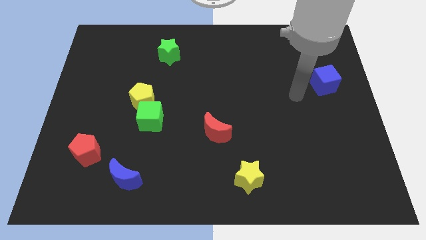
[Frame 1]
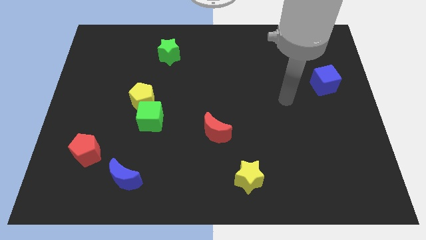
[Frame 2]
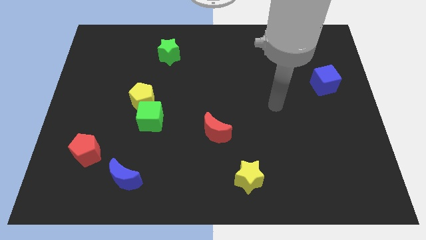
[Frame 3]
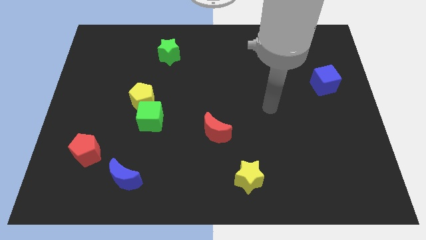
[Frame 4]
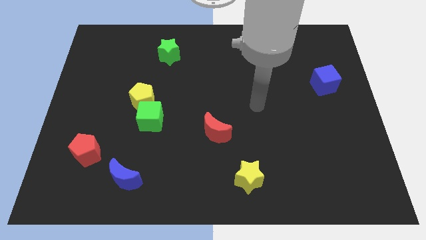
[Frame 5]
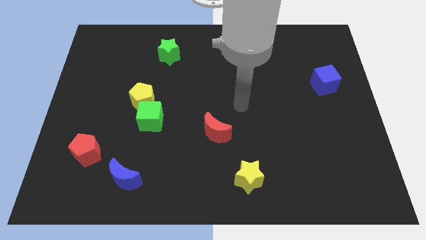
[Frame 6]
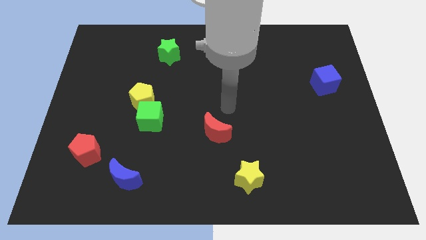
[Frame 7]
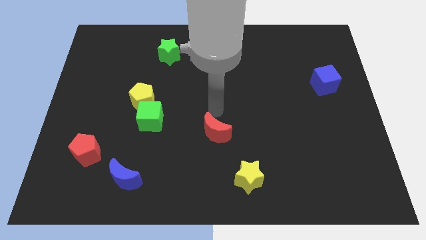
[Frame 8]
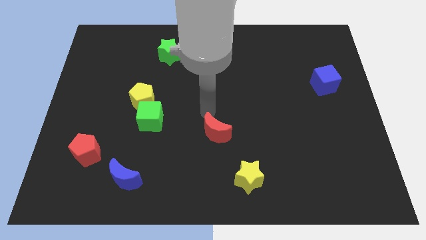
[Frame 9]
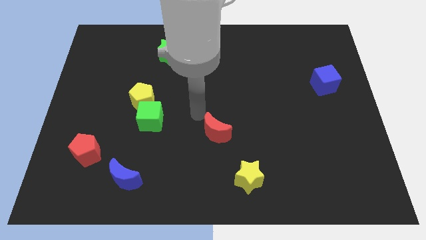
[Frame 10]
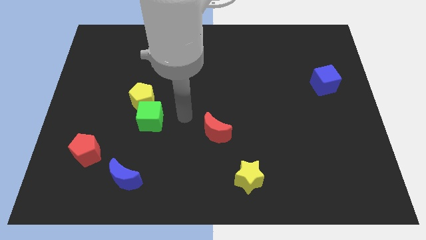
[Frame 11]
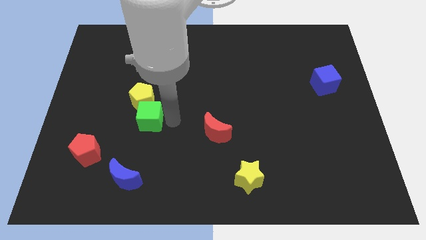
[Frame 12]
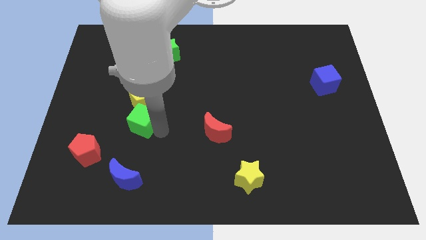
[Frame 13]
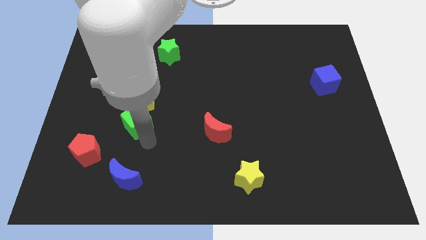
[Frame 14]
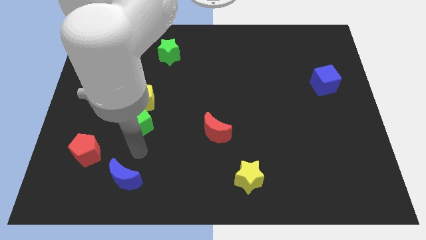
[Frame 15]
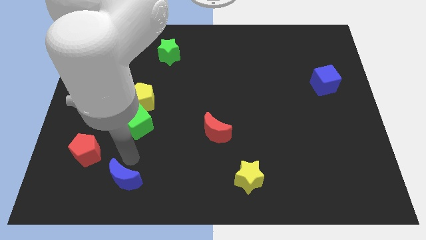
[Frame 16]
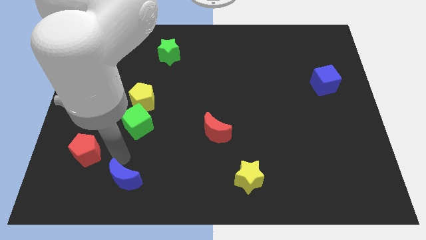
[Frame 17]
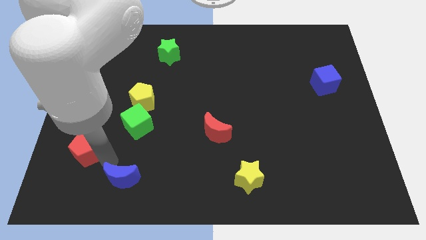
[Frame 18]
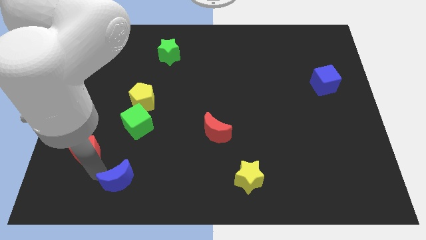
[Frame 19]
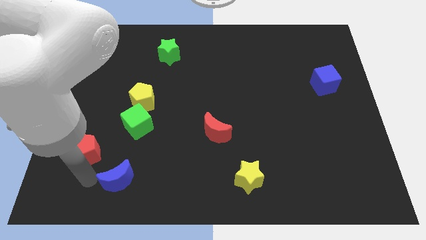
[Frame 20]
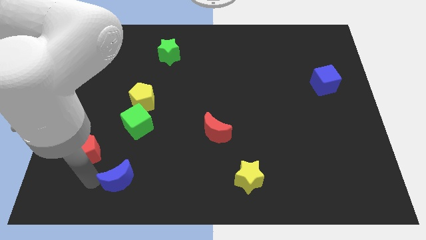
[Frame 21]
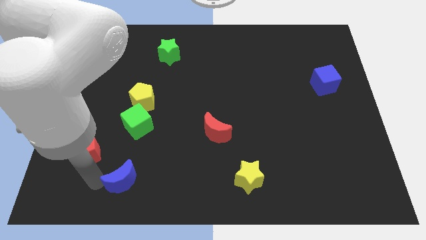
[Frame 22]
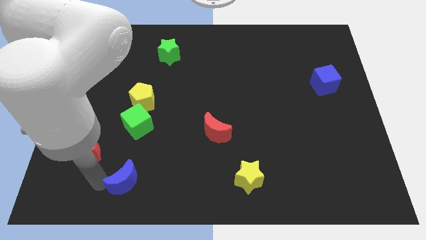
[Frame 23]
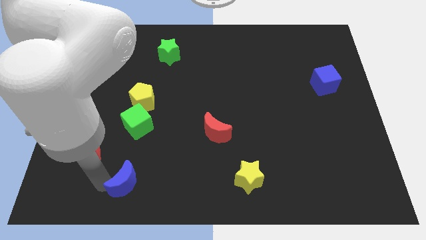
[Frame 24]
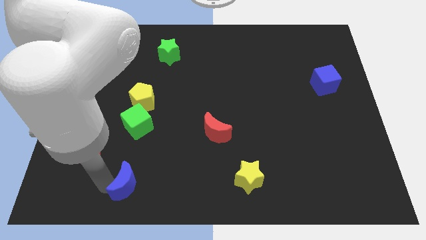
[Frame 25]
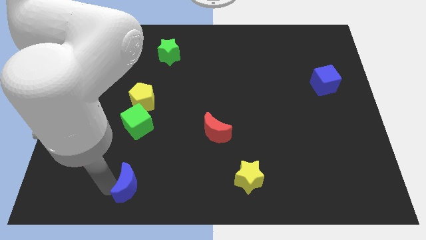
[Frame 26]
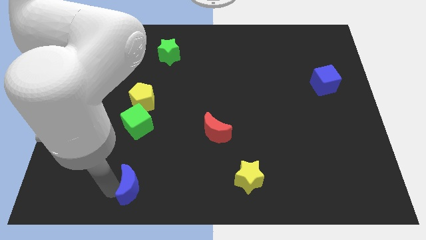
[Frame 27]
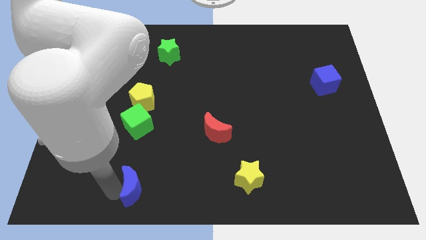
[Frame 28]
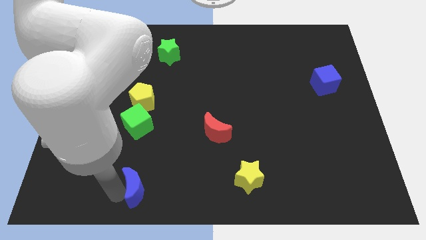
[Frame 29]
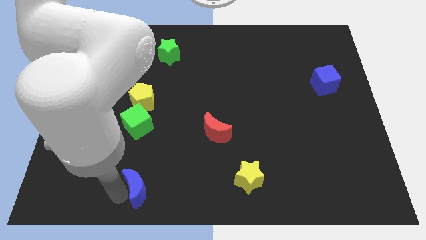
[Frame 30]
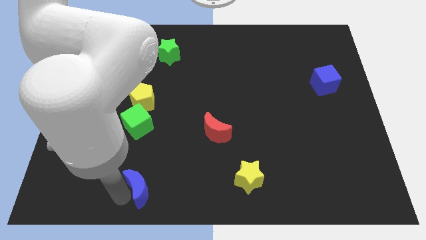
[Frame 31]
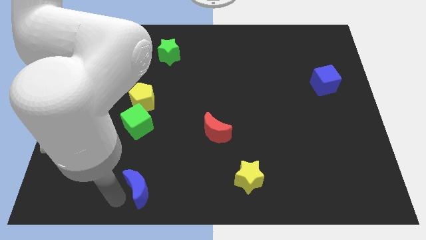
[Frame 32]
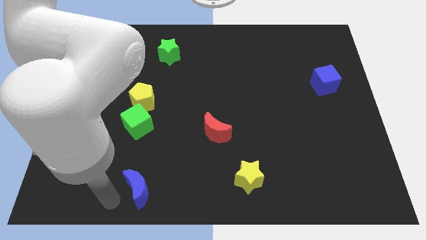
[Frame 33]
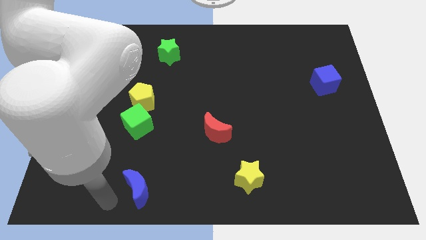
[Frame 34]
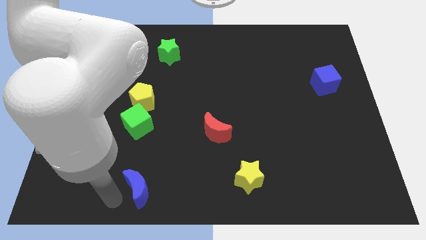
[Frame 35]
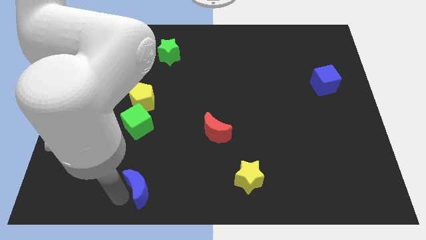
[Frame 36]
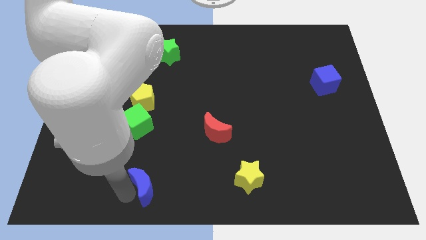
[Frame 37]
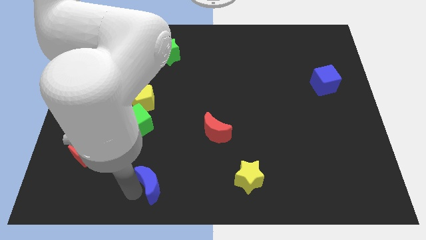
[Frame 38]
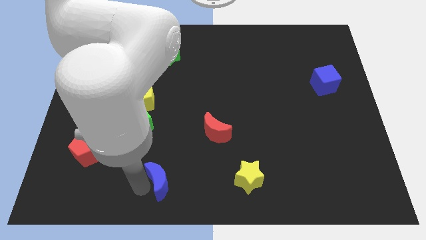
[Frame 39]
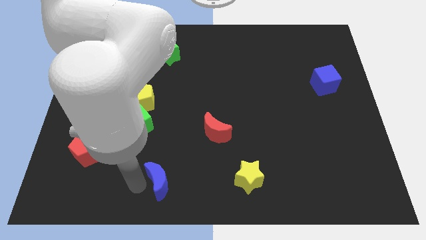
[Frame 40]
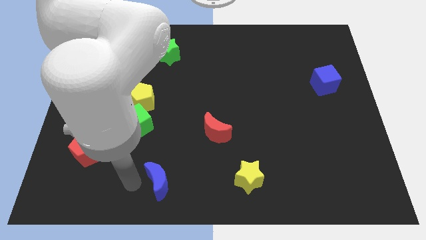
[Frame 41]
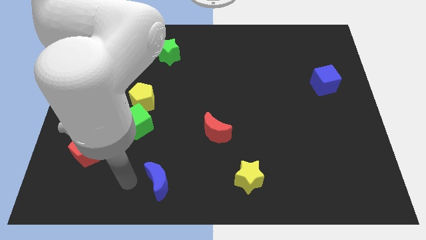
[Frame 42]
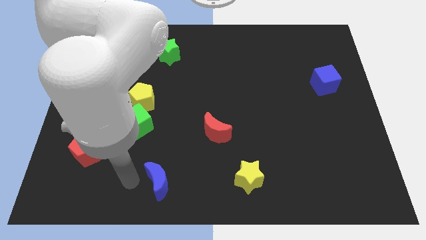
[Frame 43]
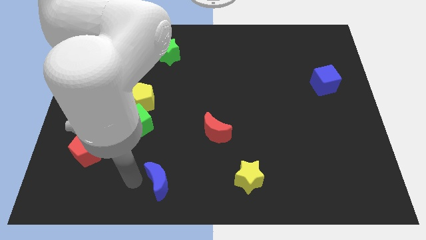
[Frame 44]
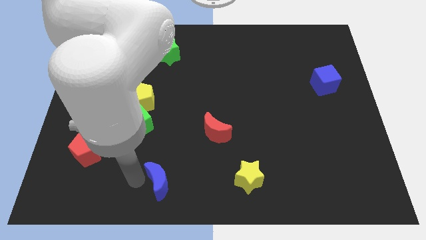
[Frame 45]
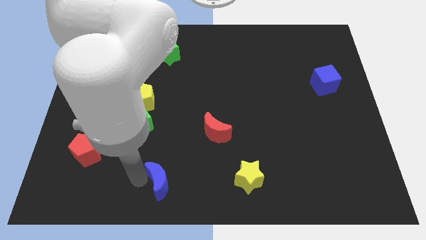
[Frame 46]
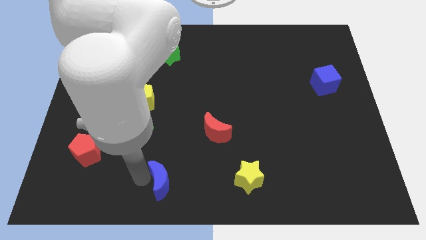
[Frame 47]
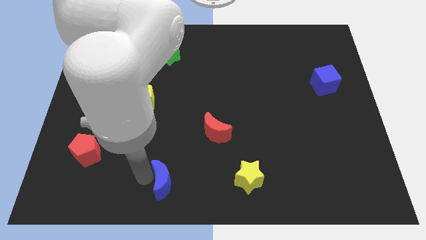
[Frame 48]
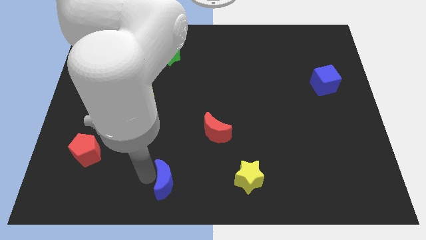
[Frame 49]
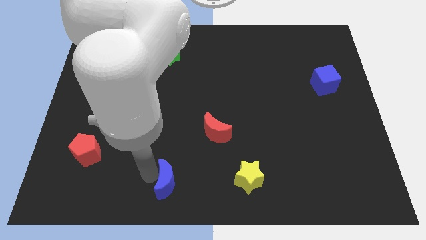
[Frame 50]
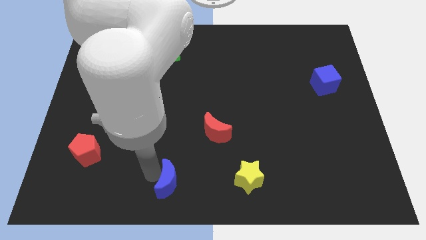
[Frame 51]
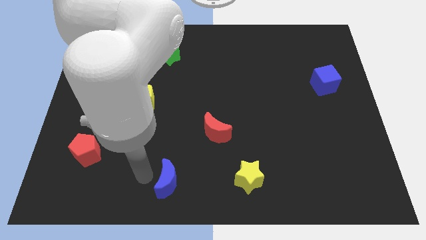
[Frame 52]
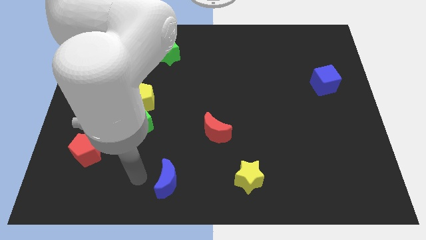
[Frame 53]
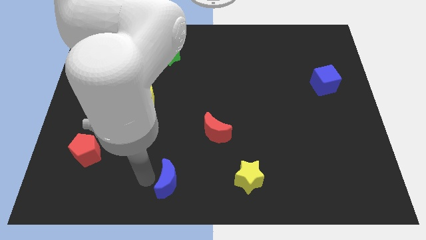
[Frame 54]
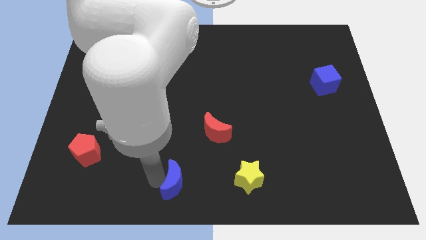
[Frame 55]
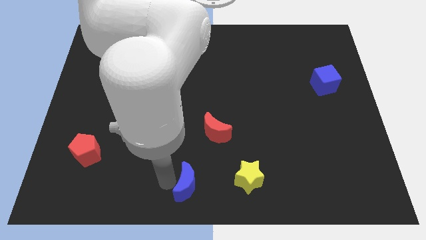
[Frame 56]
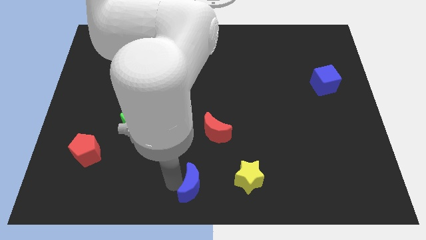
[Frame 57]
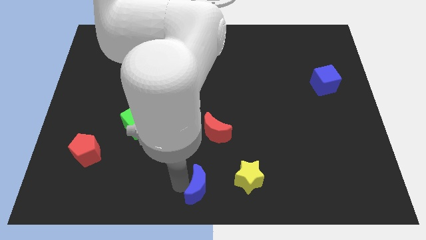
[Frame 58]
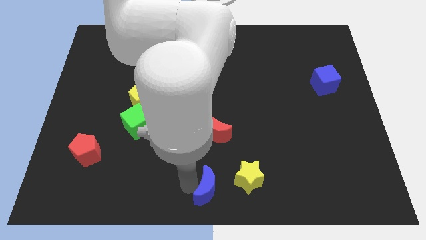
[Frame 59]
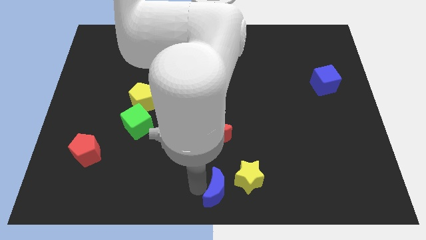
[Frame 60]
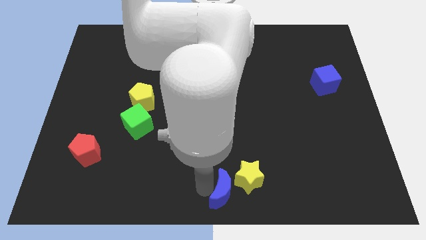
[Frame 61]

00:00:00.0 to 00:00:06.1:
move the blue moon right

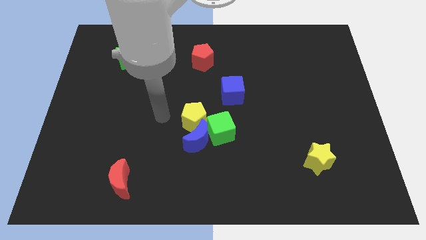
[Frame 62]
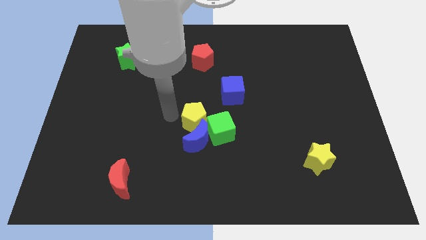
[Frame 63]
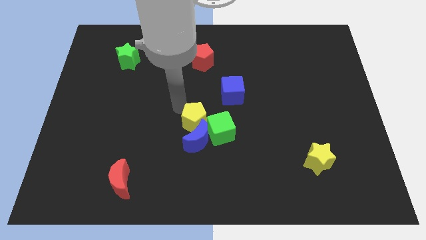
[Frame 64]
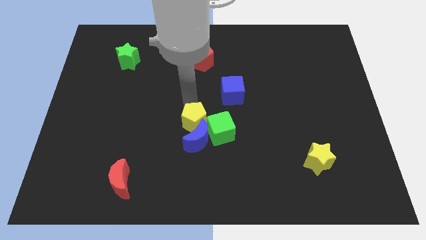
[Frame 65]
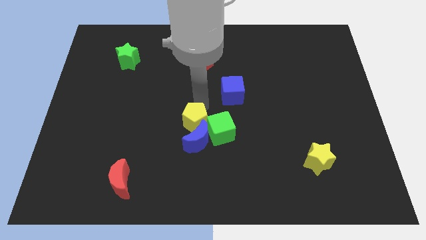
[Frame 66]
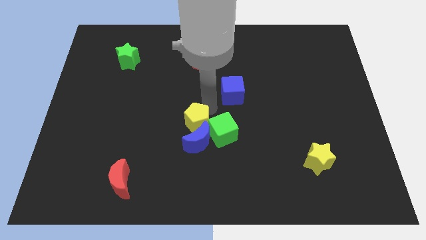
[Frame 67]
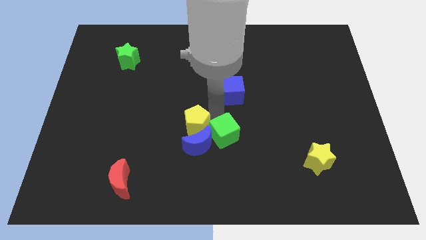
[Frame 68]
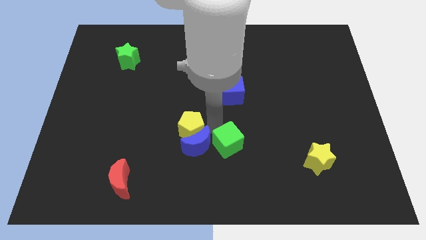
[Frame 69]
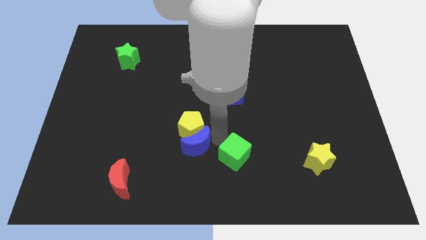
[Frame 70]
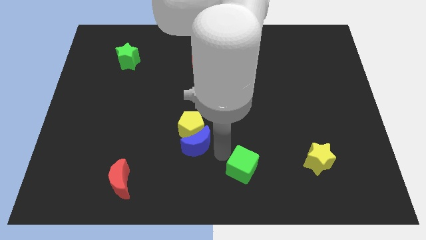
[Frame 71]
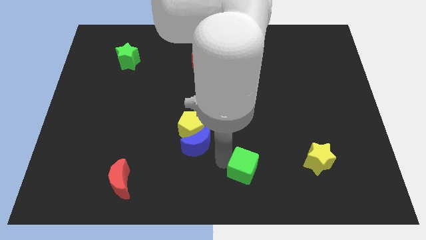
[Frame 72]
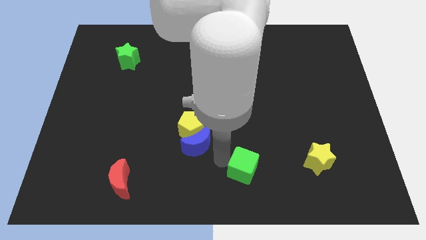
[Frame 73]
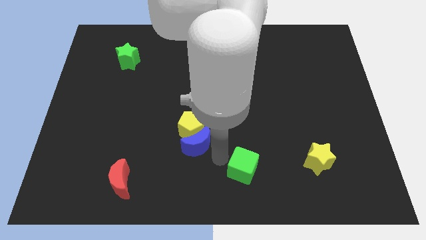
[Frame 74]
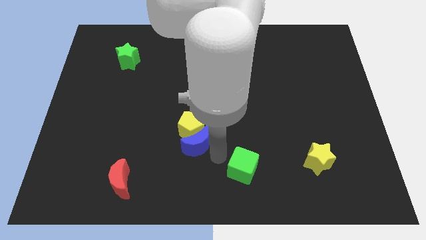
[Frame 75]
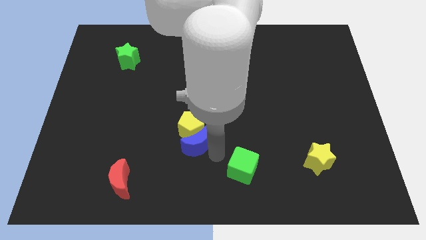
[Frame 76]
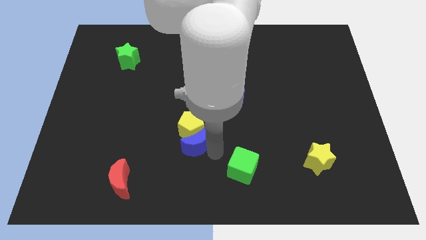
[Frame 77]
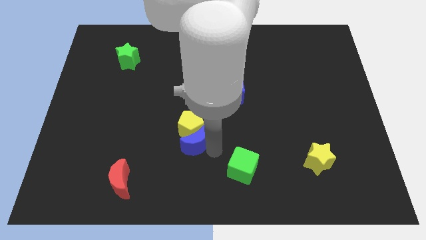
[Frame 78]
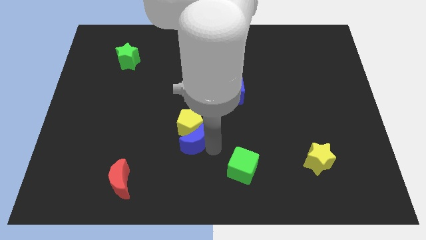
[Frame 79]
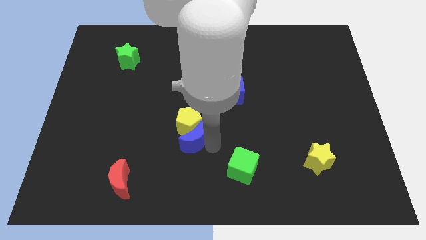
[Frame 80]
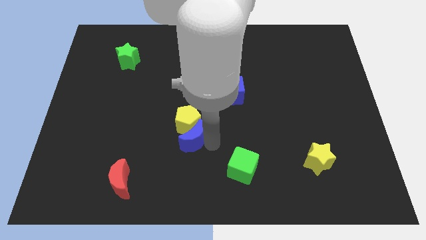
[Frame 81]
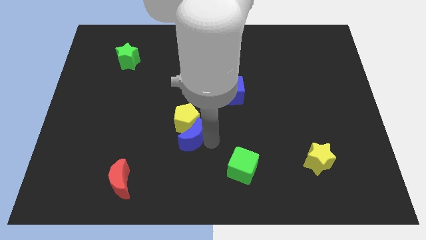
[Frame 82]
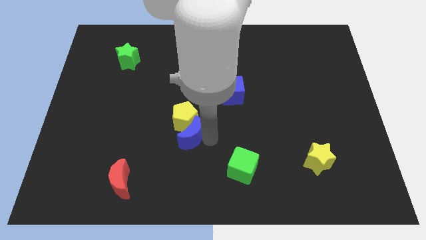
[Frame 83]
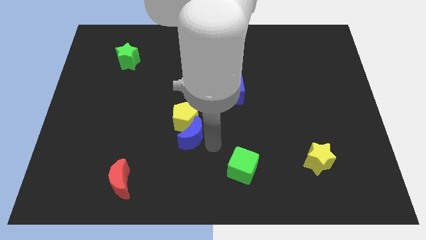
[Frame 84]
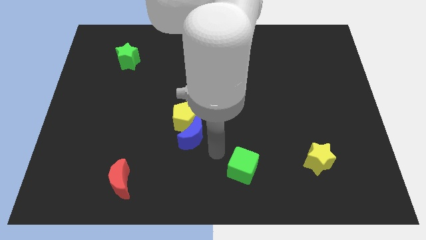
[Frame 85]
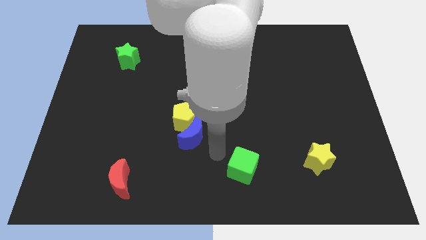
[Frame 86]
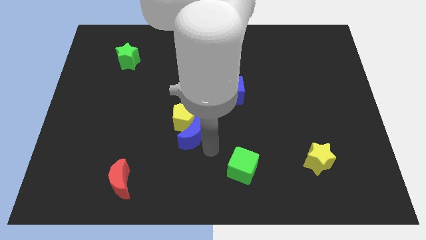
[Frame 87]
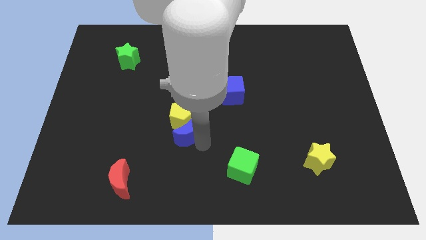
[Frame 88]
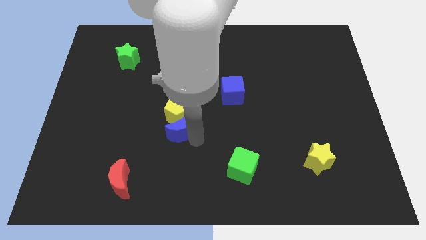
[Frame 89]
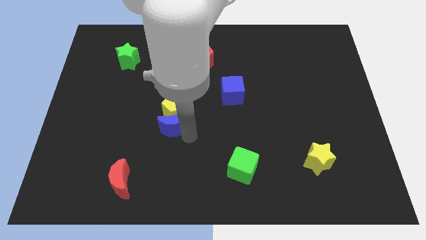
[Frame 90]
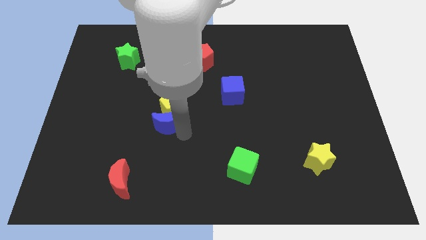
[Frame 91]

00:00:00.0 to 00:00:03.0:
push the blue moon somewhat diagonally up and to the left
